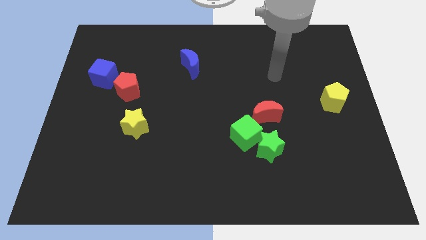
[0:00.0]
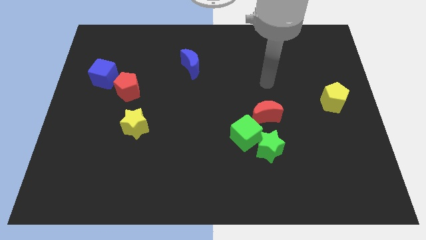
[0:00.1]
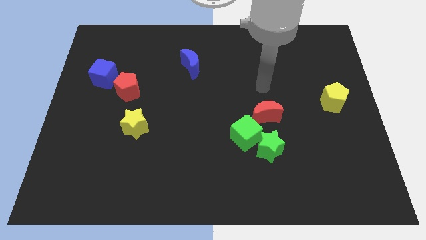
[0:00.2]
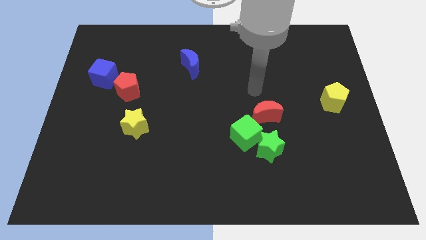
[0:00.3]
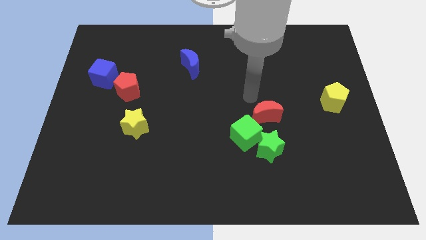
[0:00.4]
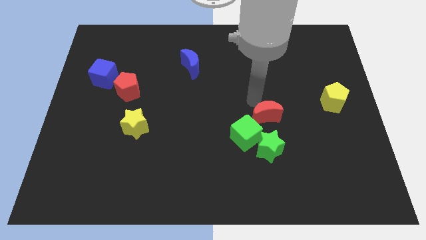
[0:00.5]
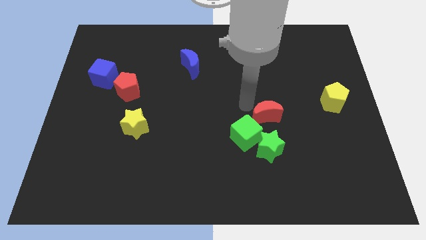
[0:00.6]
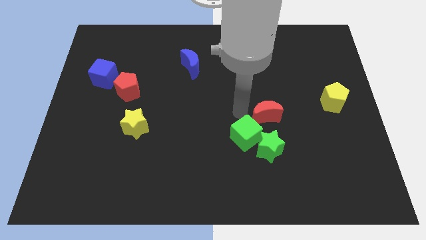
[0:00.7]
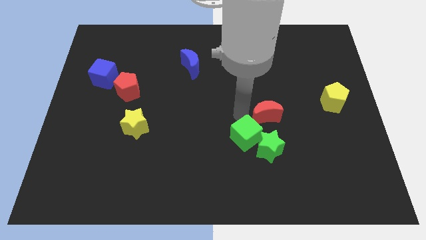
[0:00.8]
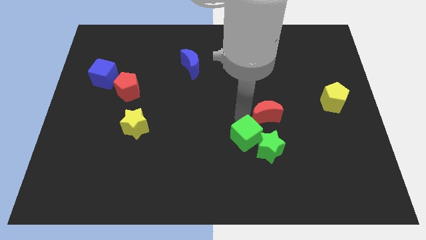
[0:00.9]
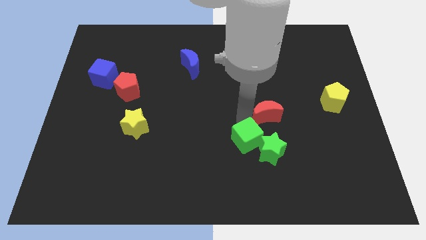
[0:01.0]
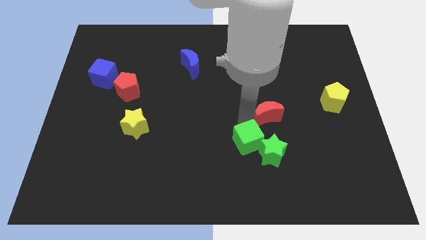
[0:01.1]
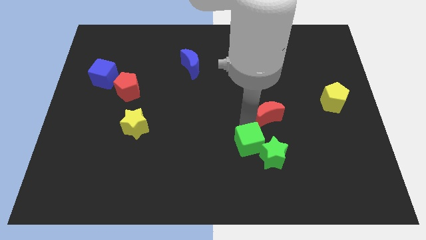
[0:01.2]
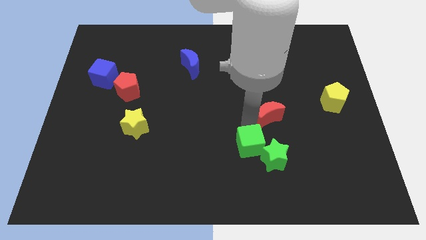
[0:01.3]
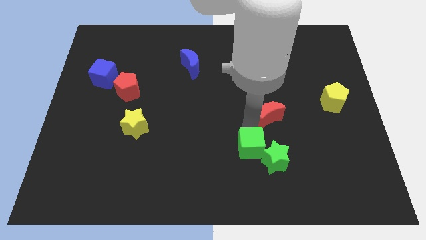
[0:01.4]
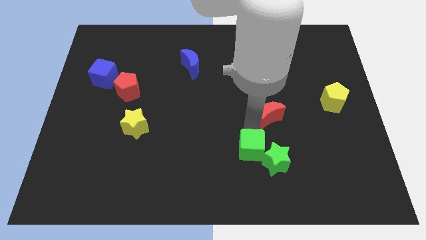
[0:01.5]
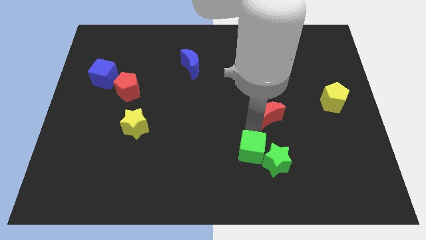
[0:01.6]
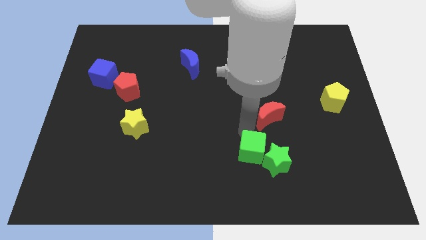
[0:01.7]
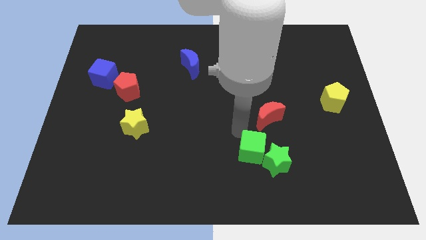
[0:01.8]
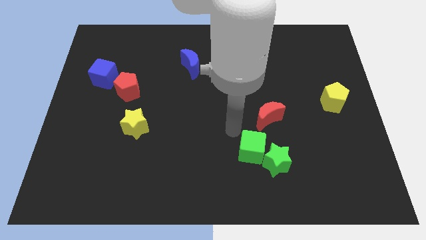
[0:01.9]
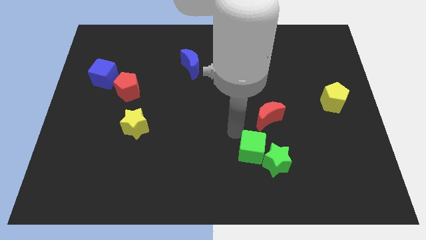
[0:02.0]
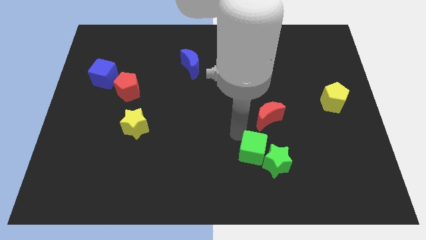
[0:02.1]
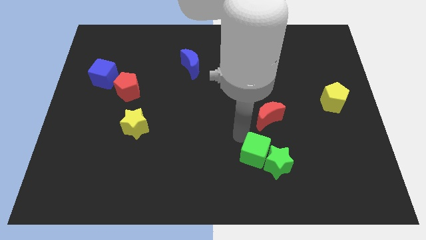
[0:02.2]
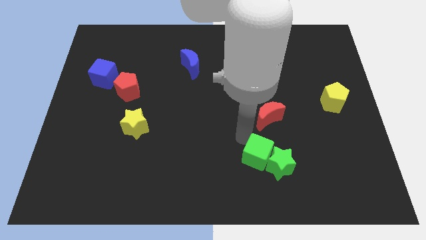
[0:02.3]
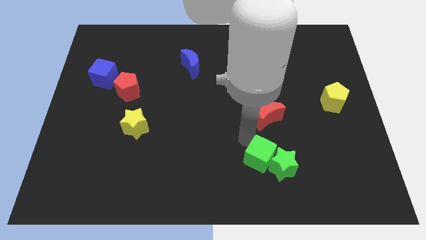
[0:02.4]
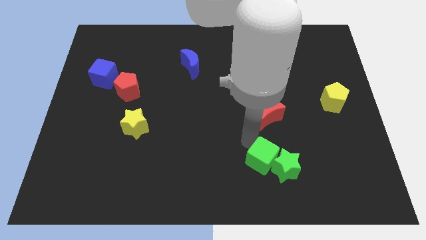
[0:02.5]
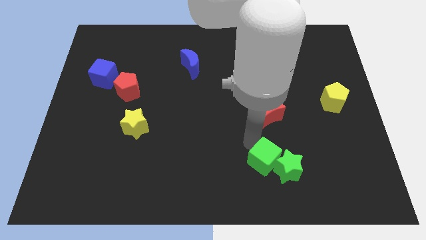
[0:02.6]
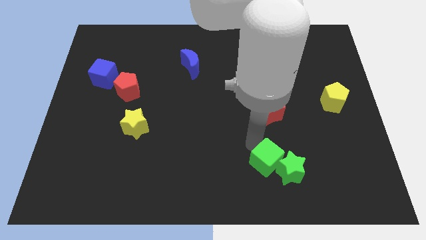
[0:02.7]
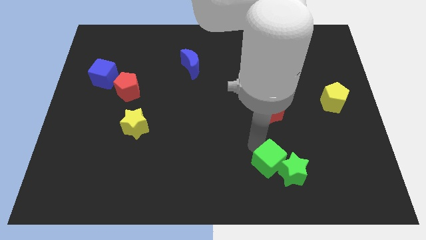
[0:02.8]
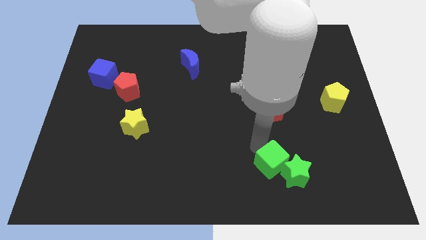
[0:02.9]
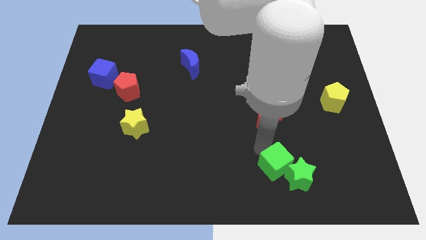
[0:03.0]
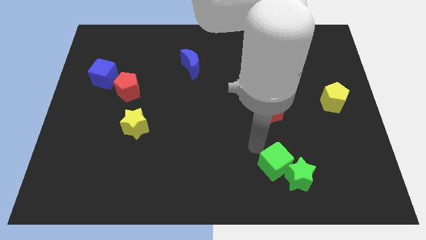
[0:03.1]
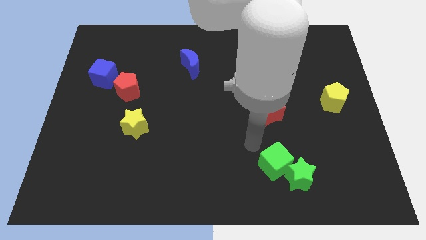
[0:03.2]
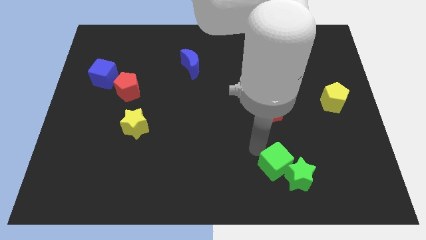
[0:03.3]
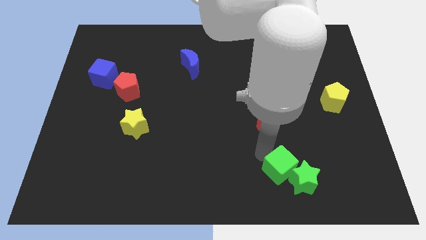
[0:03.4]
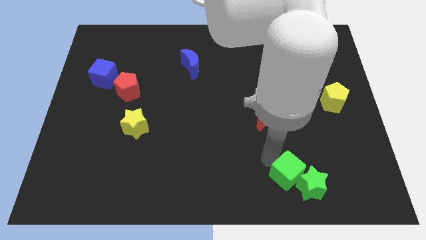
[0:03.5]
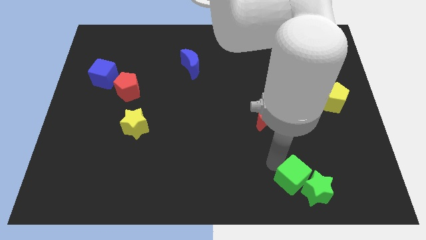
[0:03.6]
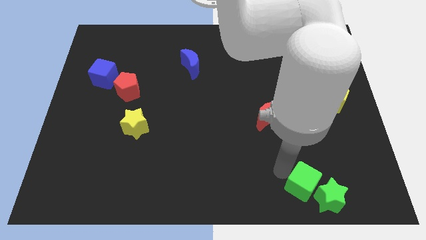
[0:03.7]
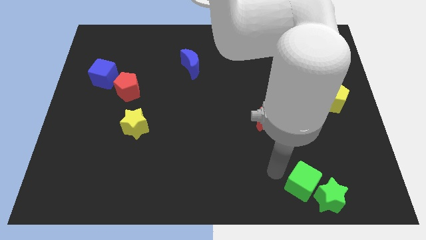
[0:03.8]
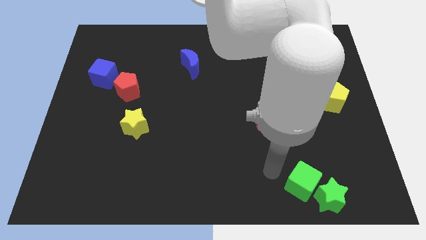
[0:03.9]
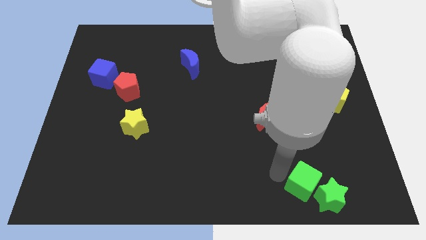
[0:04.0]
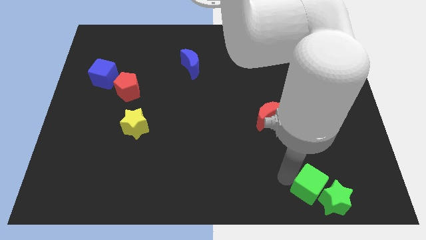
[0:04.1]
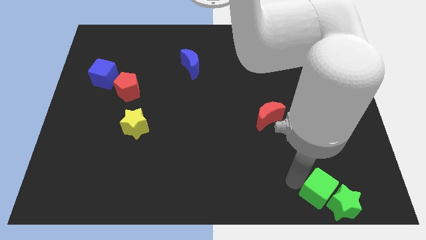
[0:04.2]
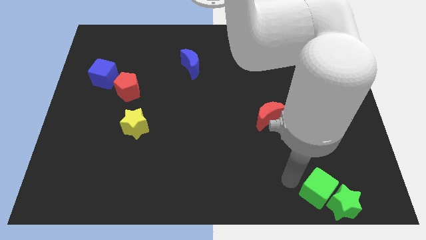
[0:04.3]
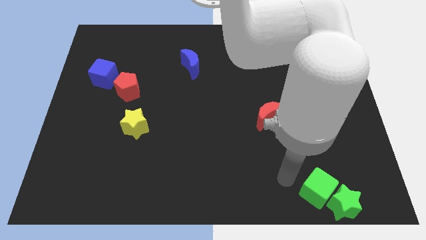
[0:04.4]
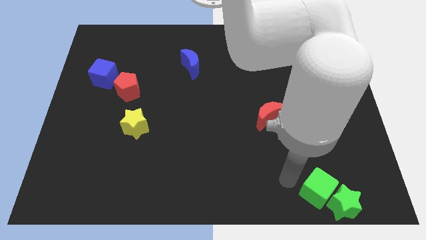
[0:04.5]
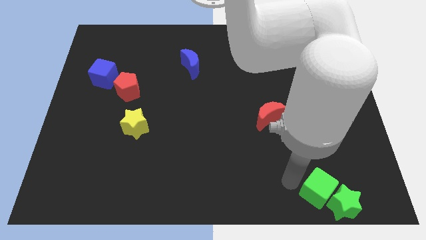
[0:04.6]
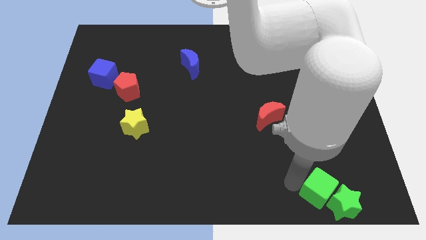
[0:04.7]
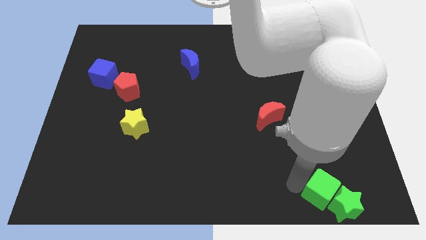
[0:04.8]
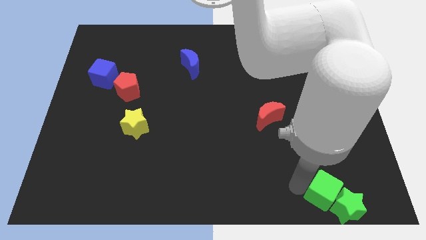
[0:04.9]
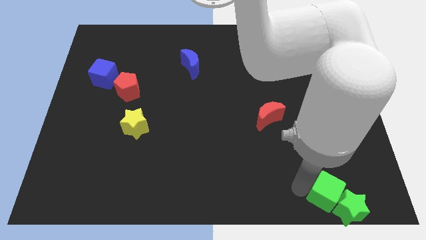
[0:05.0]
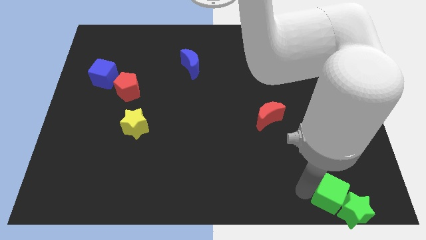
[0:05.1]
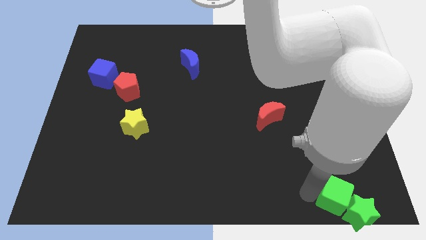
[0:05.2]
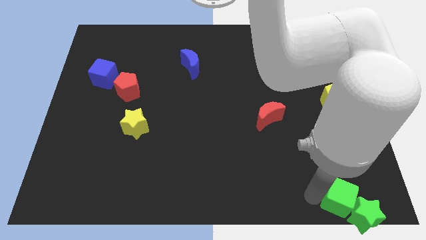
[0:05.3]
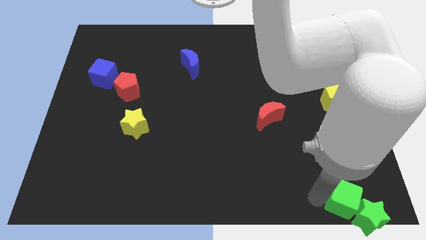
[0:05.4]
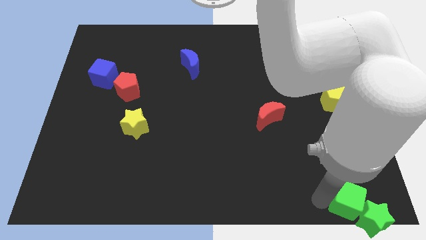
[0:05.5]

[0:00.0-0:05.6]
put the green cube to the bottom right

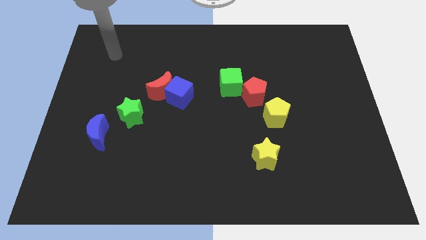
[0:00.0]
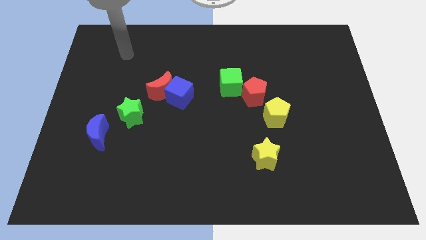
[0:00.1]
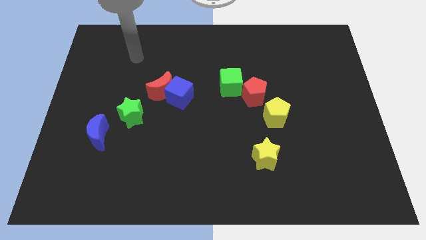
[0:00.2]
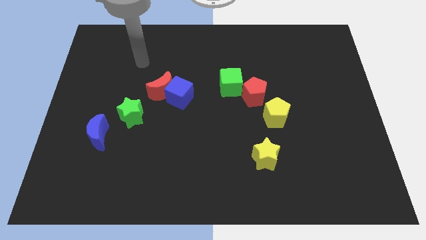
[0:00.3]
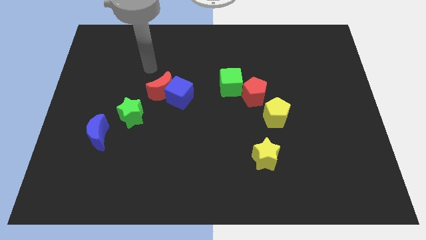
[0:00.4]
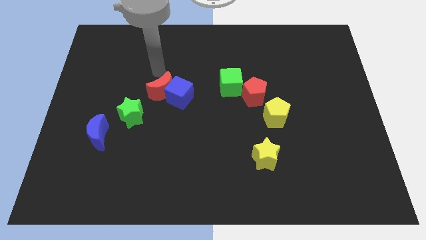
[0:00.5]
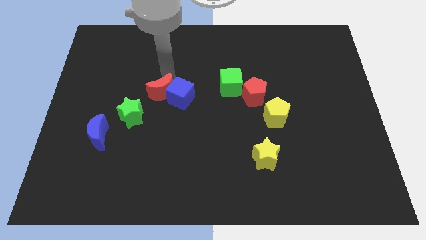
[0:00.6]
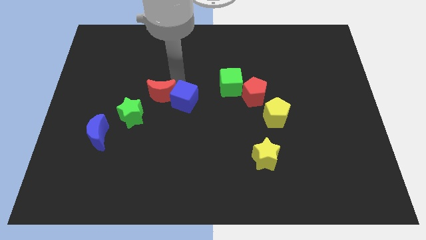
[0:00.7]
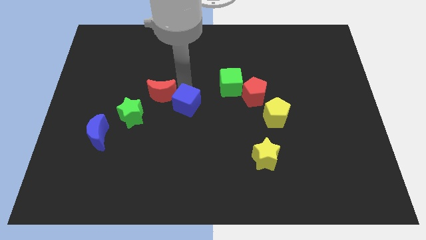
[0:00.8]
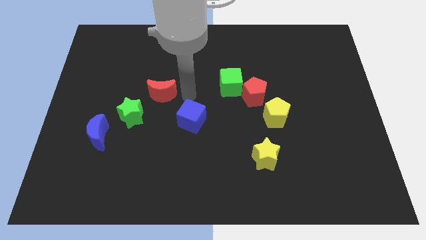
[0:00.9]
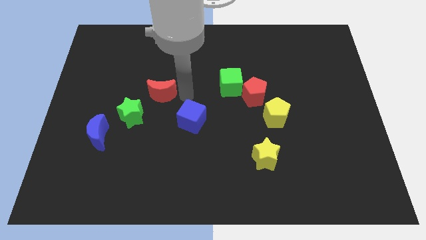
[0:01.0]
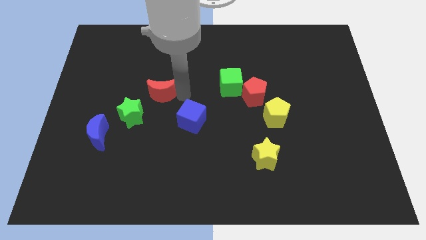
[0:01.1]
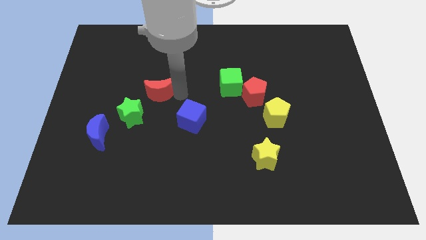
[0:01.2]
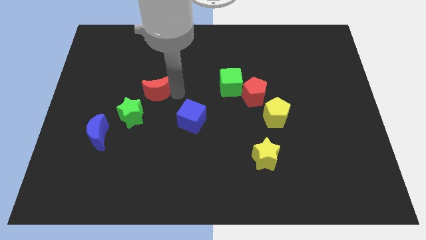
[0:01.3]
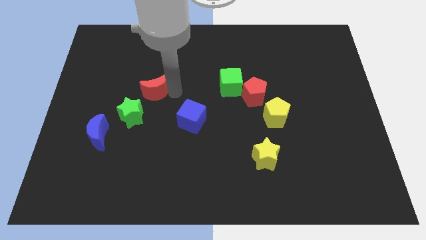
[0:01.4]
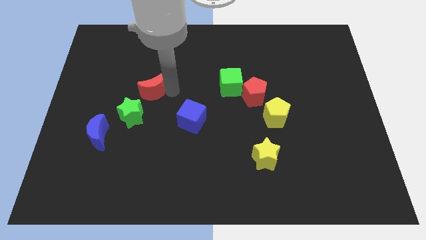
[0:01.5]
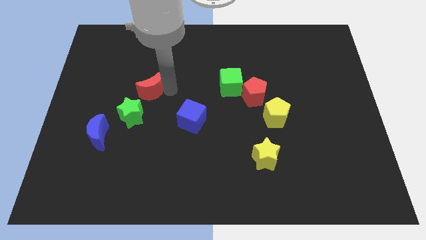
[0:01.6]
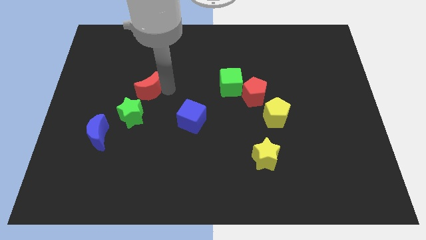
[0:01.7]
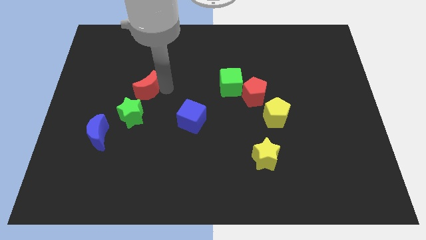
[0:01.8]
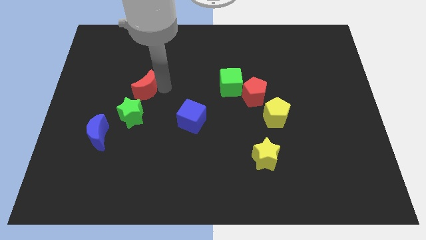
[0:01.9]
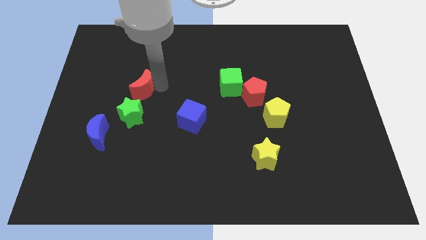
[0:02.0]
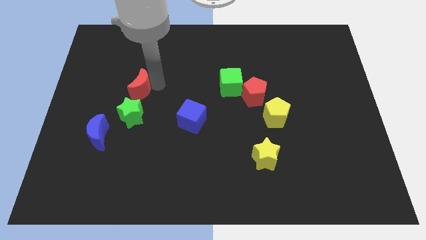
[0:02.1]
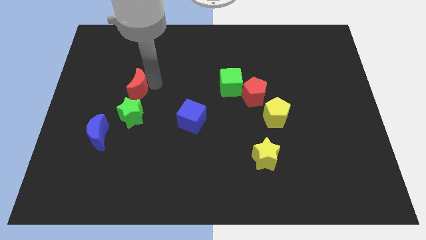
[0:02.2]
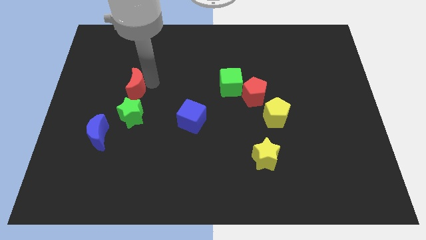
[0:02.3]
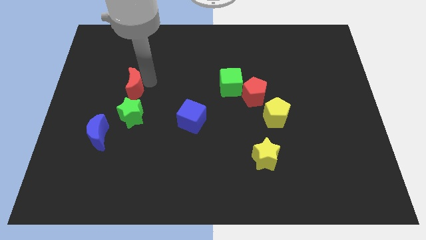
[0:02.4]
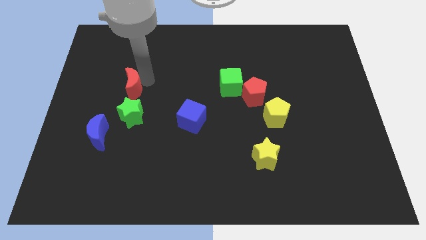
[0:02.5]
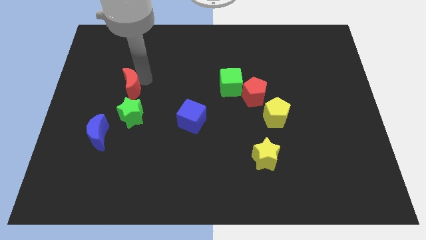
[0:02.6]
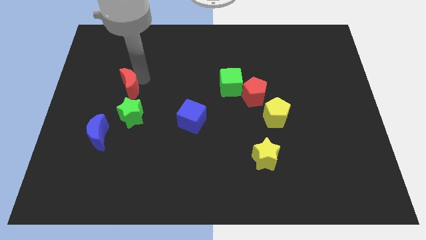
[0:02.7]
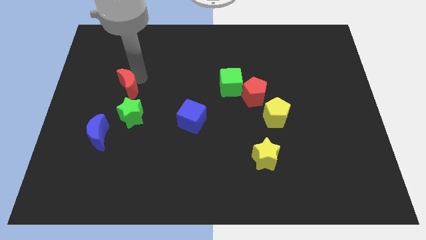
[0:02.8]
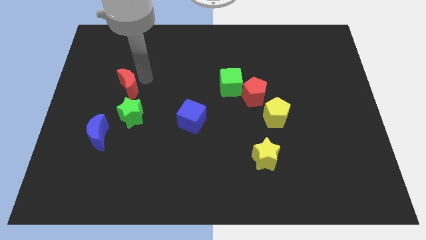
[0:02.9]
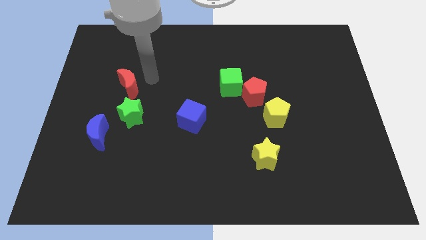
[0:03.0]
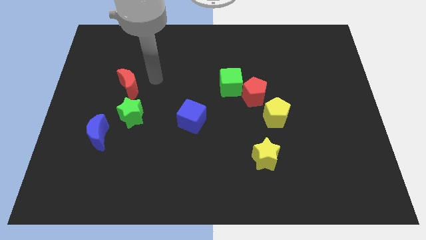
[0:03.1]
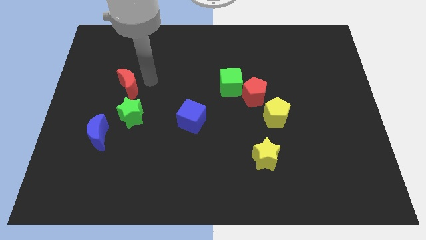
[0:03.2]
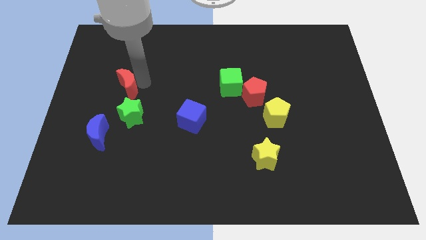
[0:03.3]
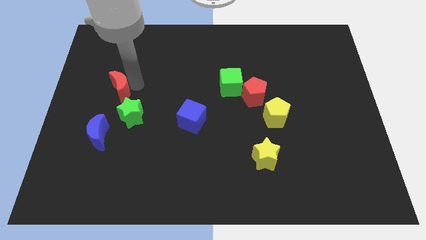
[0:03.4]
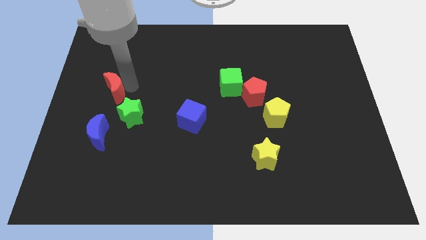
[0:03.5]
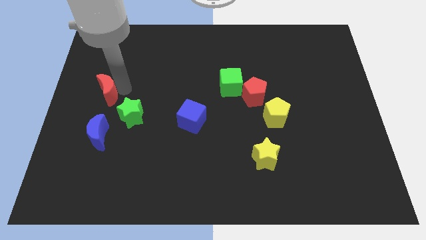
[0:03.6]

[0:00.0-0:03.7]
push the red moon to the left side
